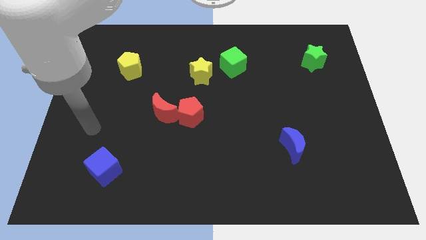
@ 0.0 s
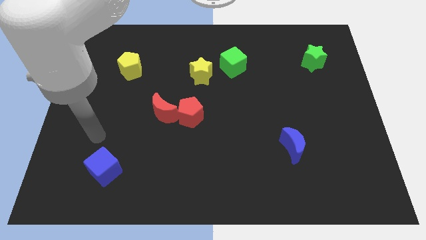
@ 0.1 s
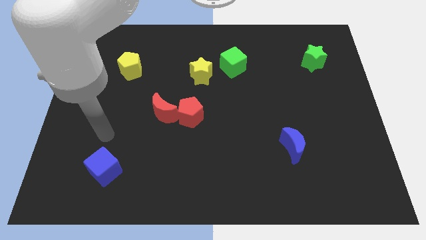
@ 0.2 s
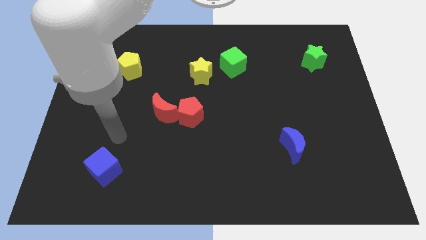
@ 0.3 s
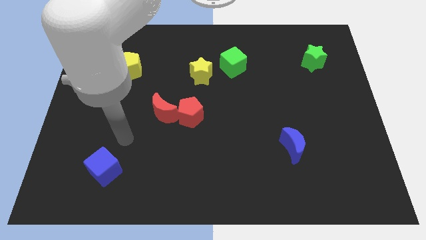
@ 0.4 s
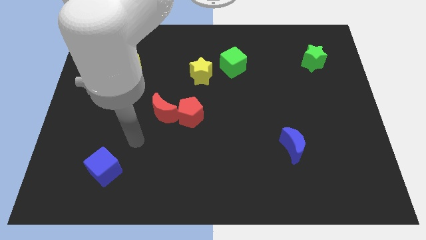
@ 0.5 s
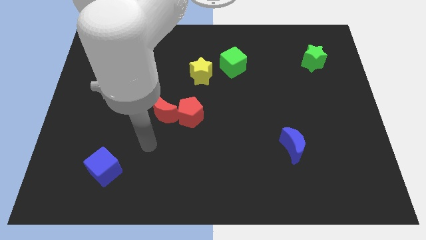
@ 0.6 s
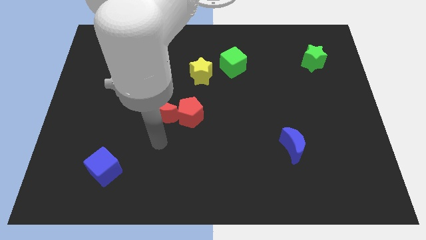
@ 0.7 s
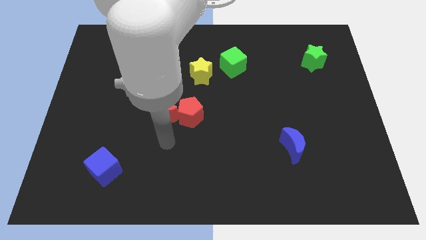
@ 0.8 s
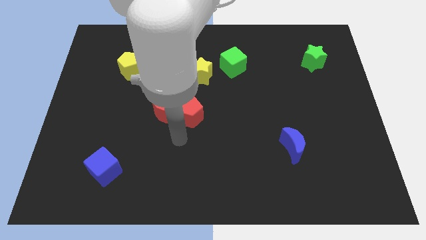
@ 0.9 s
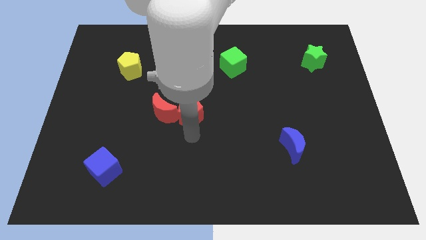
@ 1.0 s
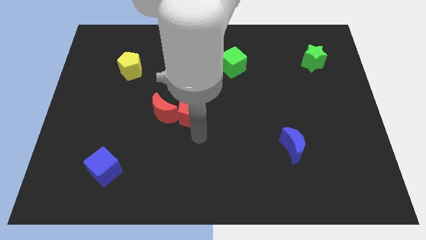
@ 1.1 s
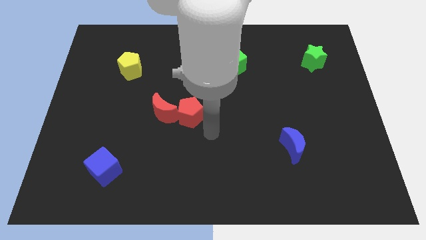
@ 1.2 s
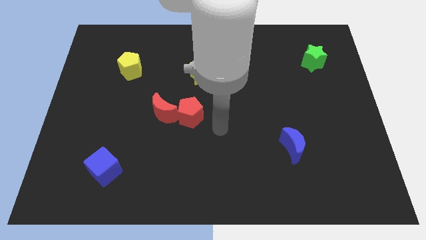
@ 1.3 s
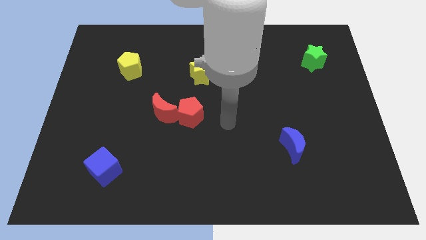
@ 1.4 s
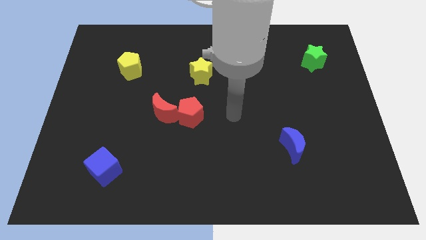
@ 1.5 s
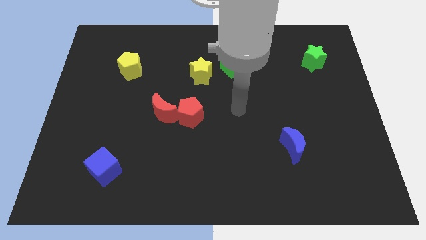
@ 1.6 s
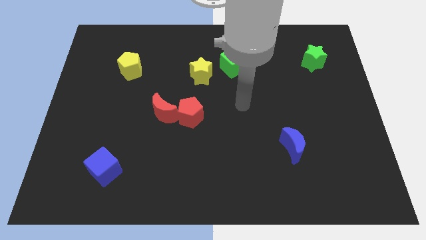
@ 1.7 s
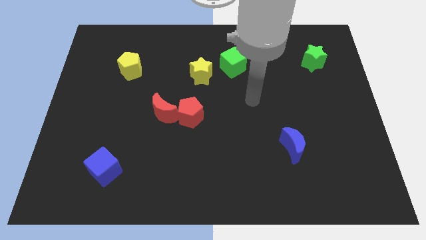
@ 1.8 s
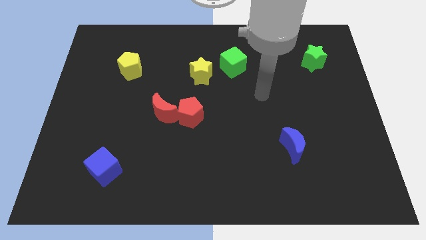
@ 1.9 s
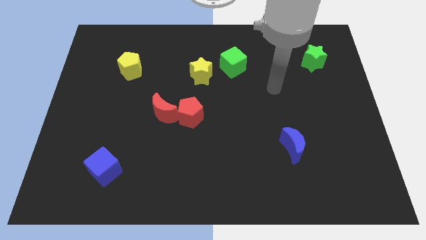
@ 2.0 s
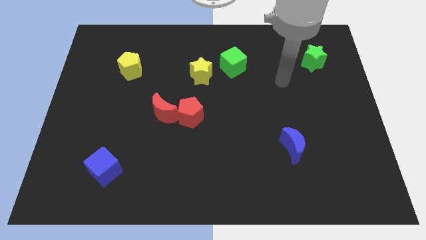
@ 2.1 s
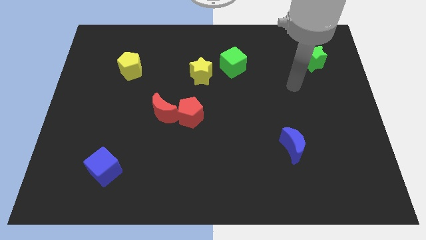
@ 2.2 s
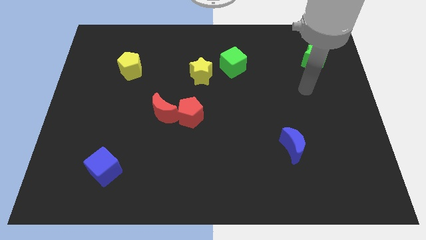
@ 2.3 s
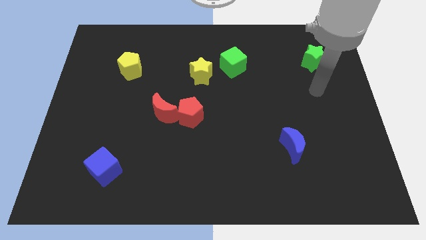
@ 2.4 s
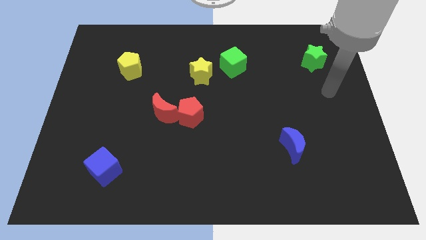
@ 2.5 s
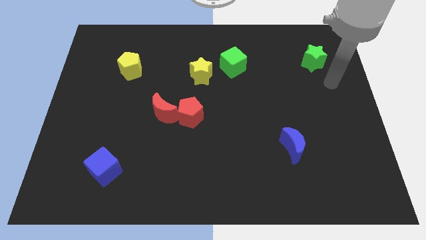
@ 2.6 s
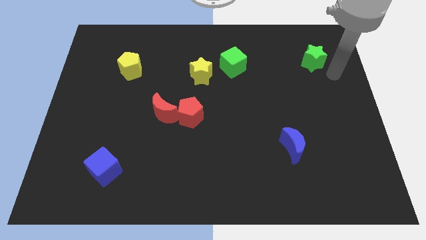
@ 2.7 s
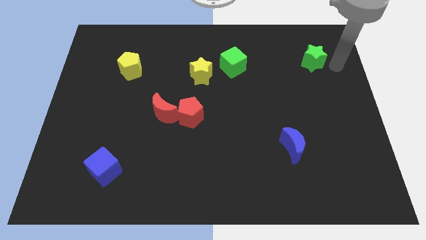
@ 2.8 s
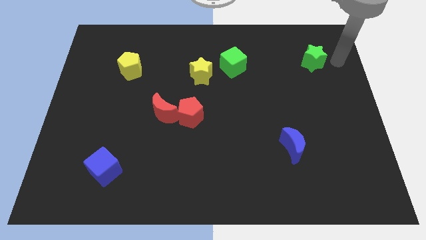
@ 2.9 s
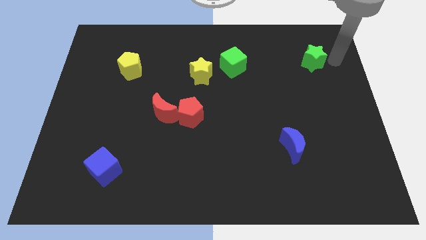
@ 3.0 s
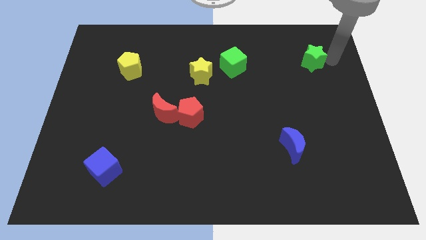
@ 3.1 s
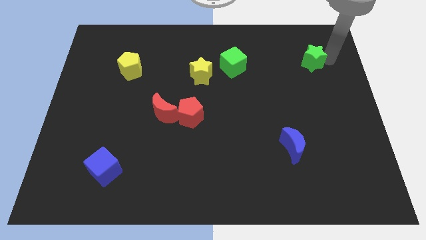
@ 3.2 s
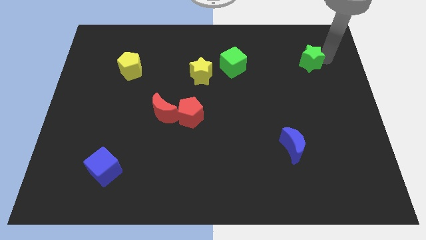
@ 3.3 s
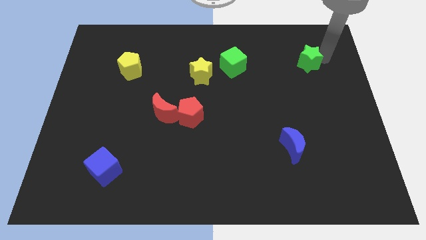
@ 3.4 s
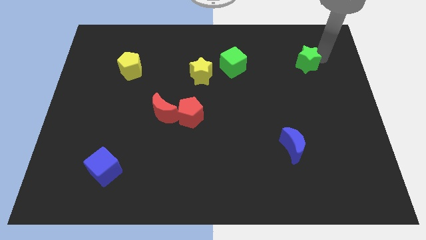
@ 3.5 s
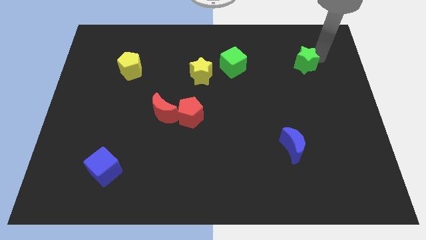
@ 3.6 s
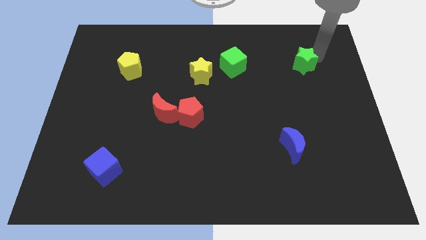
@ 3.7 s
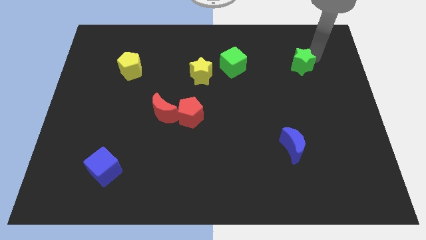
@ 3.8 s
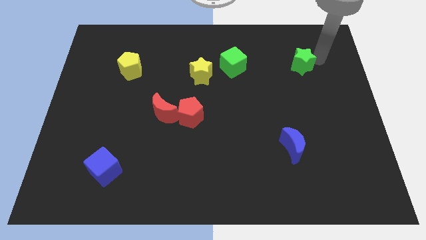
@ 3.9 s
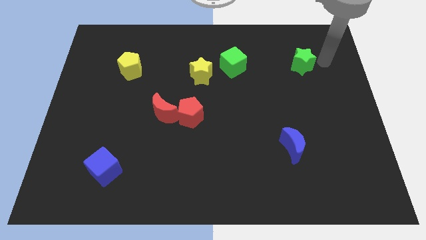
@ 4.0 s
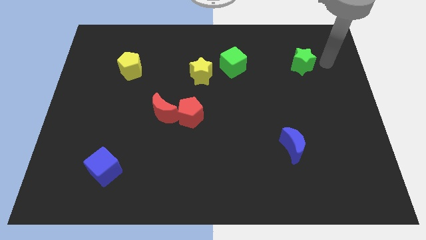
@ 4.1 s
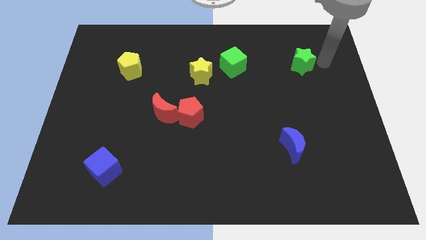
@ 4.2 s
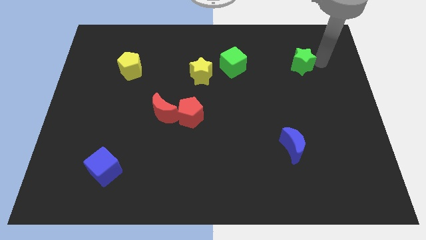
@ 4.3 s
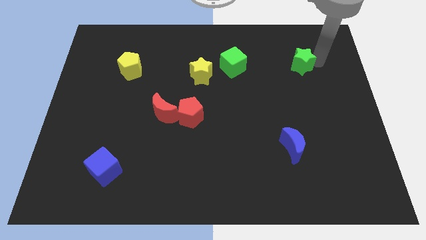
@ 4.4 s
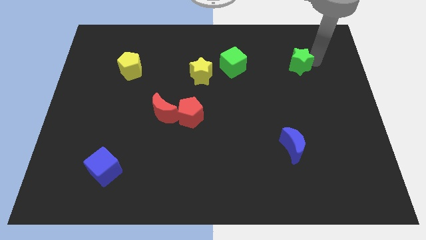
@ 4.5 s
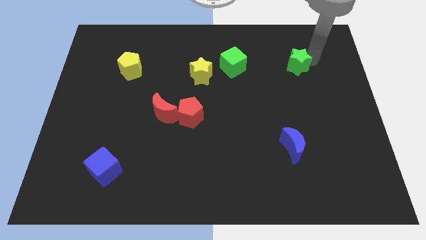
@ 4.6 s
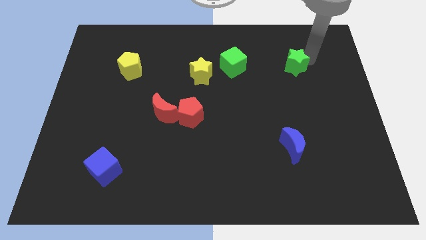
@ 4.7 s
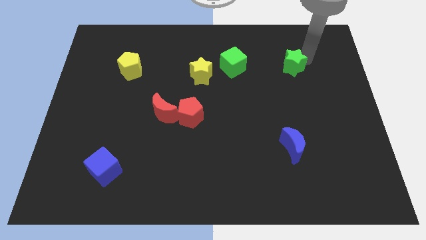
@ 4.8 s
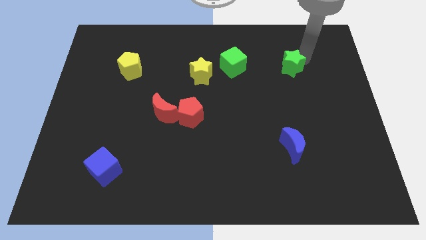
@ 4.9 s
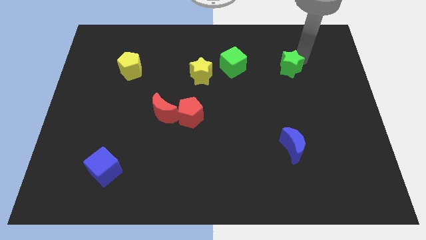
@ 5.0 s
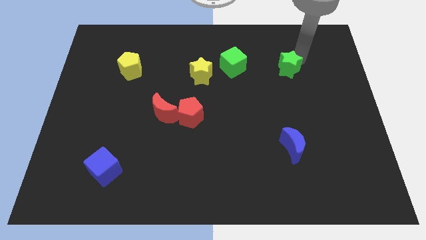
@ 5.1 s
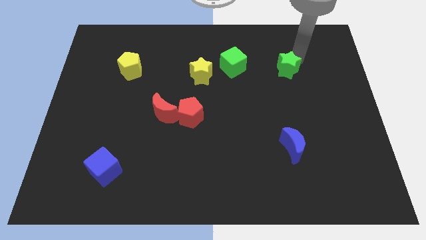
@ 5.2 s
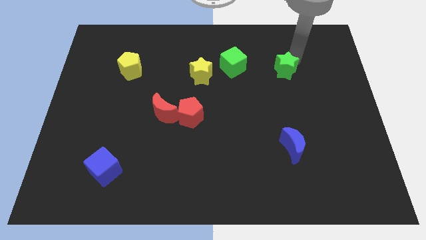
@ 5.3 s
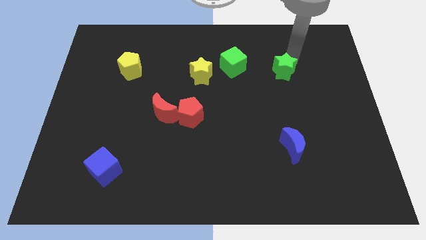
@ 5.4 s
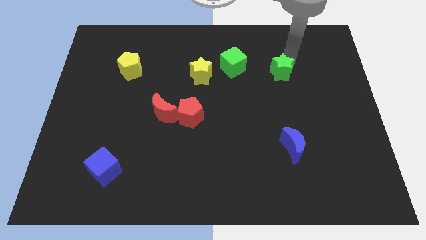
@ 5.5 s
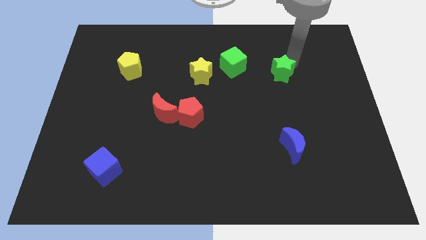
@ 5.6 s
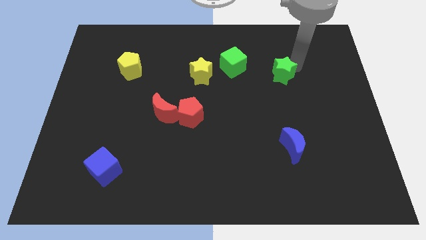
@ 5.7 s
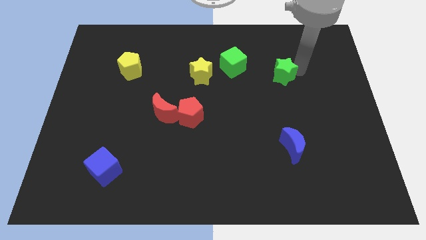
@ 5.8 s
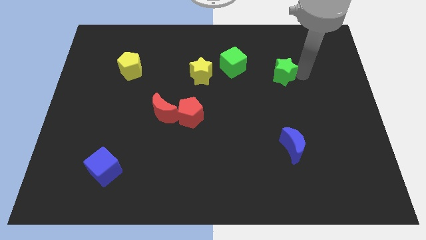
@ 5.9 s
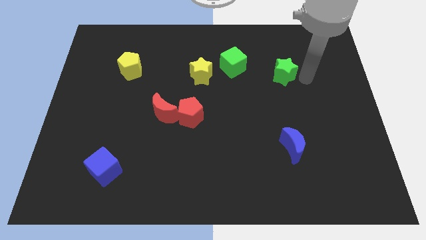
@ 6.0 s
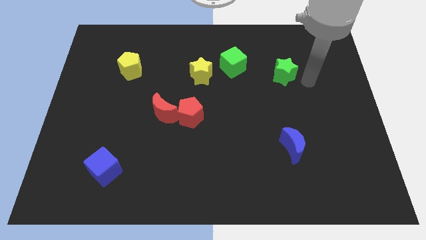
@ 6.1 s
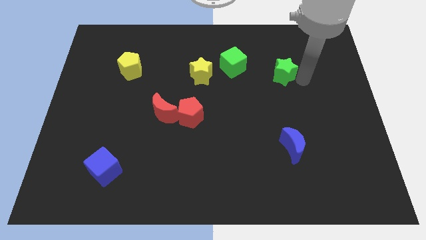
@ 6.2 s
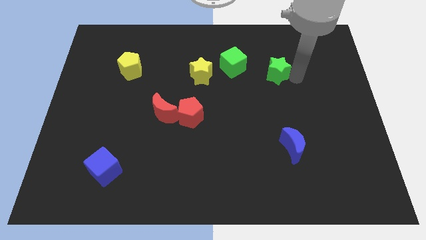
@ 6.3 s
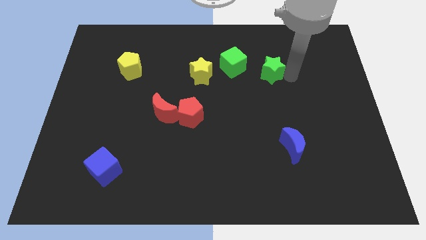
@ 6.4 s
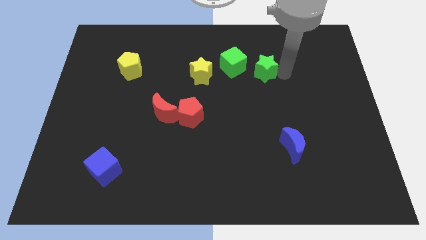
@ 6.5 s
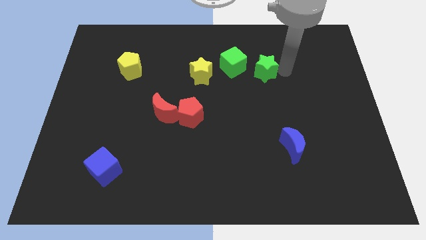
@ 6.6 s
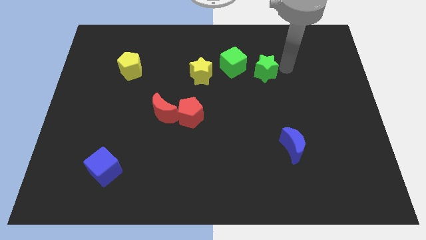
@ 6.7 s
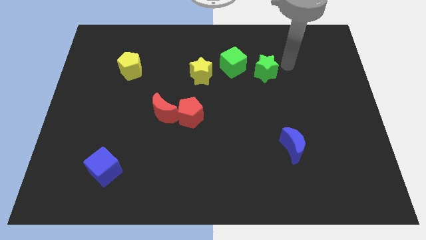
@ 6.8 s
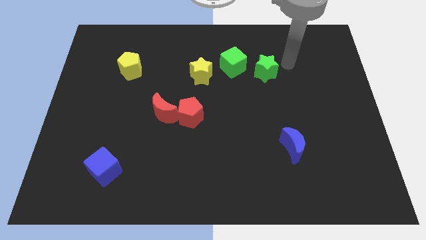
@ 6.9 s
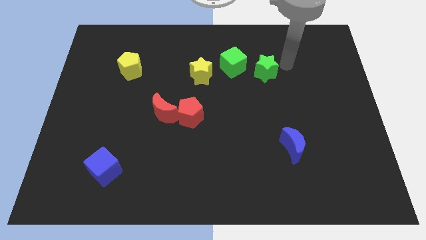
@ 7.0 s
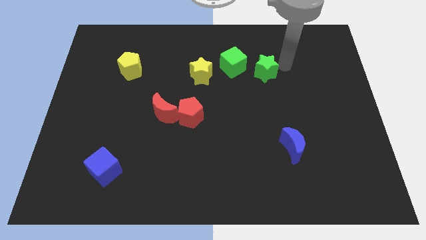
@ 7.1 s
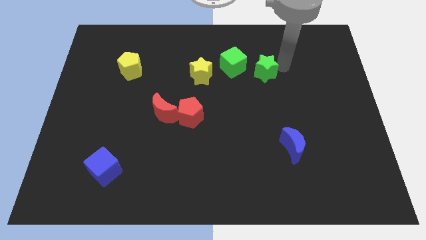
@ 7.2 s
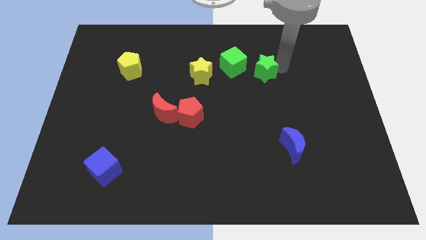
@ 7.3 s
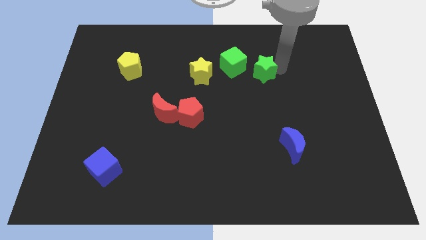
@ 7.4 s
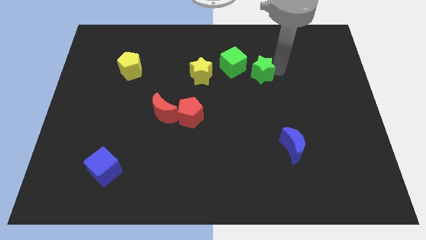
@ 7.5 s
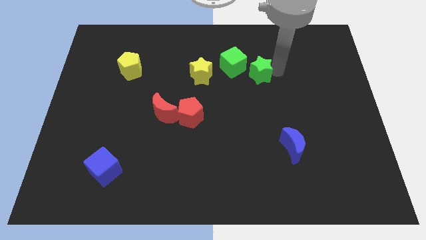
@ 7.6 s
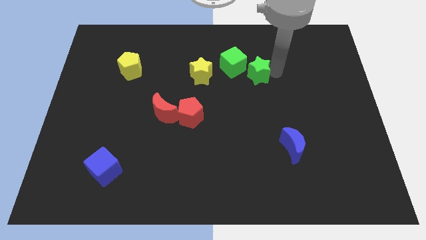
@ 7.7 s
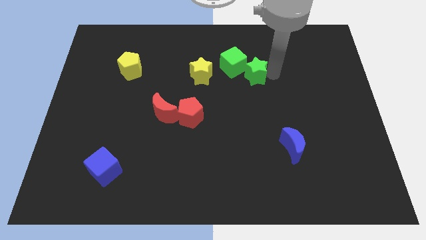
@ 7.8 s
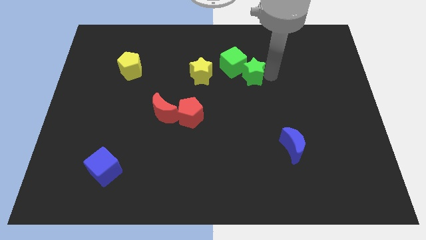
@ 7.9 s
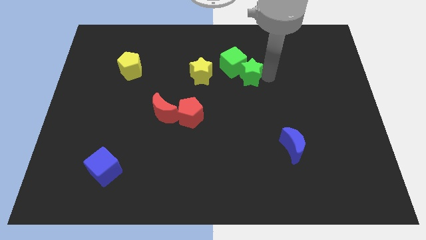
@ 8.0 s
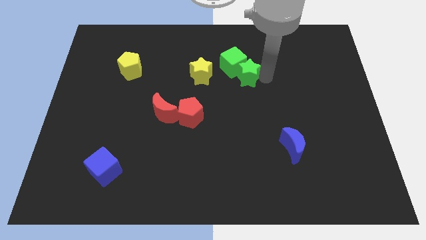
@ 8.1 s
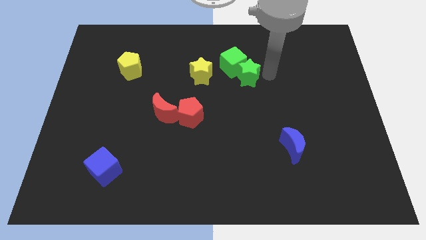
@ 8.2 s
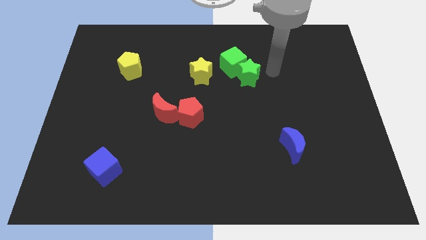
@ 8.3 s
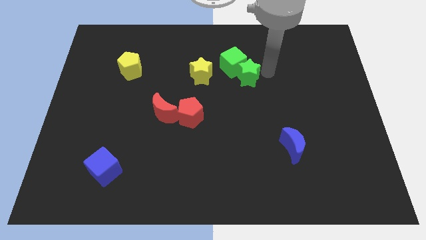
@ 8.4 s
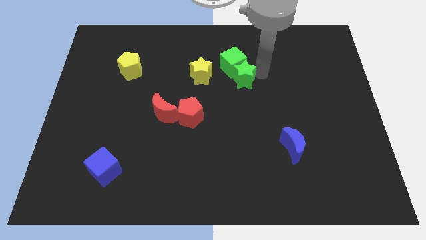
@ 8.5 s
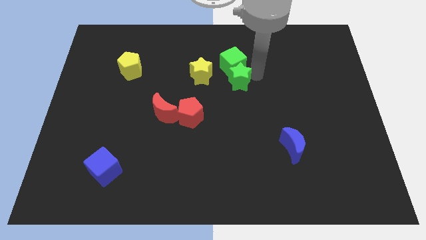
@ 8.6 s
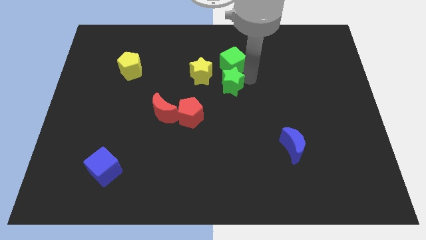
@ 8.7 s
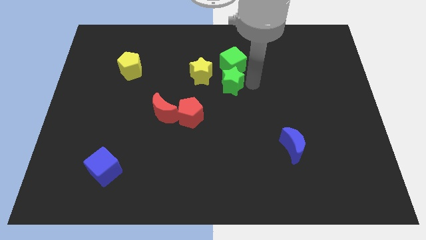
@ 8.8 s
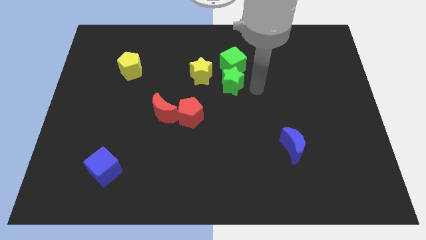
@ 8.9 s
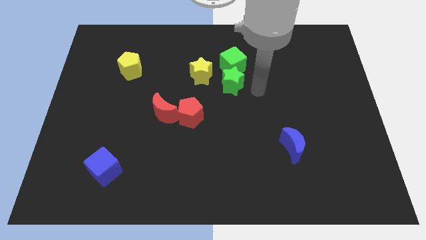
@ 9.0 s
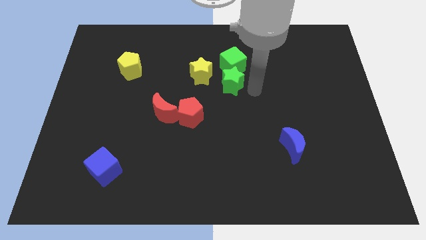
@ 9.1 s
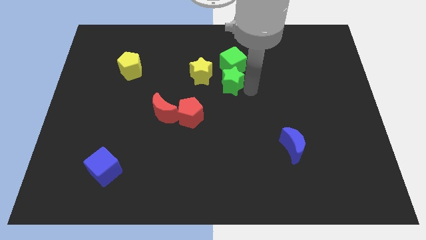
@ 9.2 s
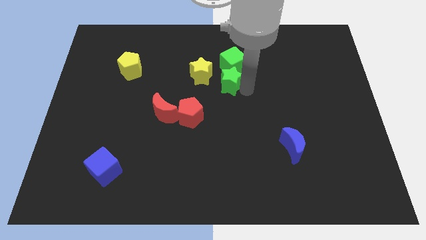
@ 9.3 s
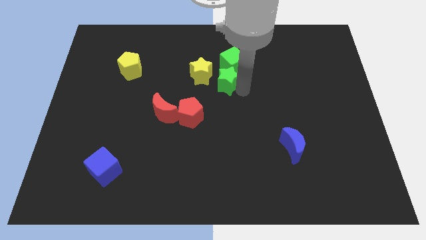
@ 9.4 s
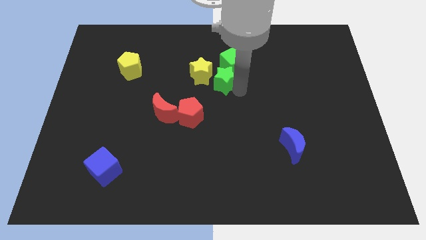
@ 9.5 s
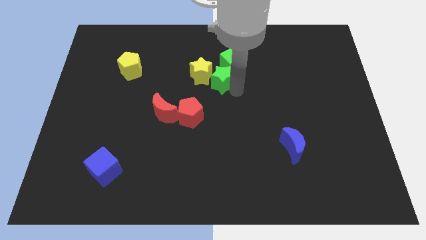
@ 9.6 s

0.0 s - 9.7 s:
move the green star to the yellow star
